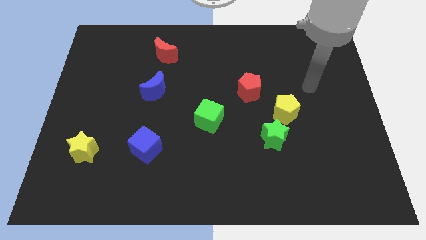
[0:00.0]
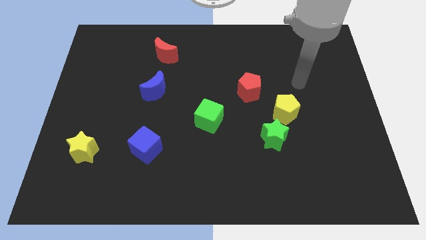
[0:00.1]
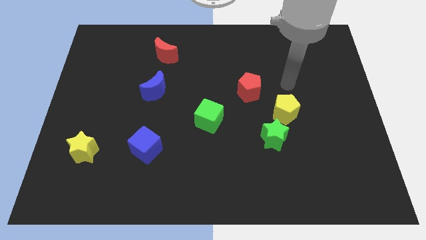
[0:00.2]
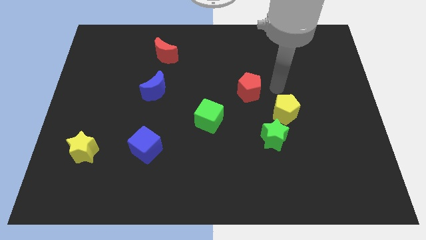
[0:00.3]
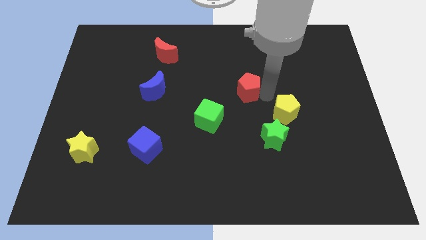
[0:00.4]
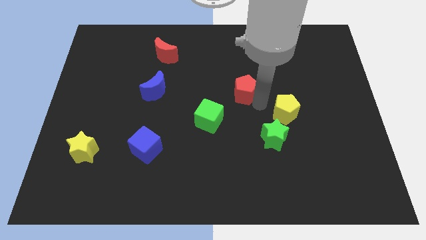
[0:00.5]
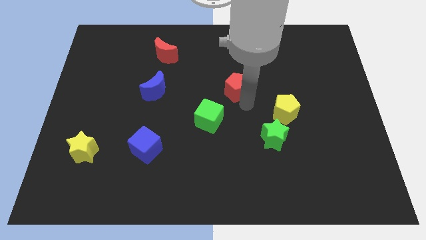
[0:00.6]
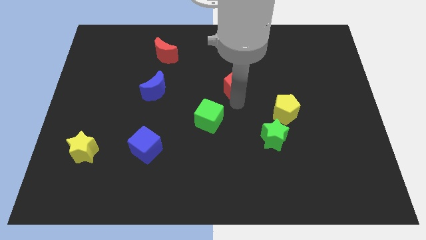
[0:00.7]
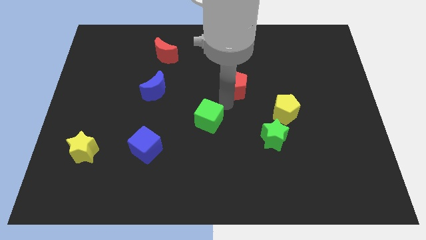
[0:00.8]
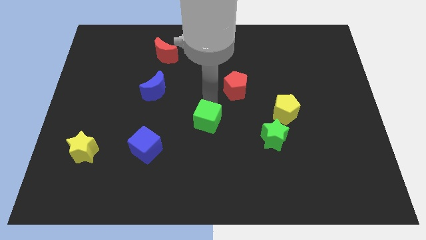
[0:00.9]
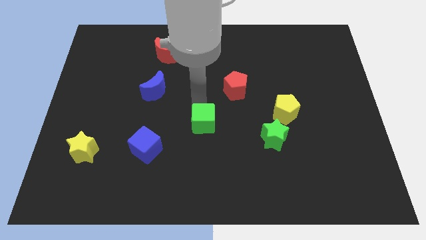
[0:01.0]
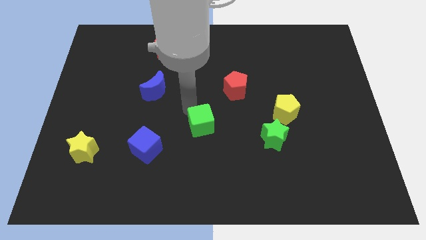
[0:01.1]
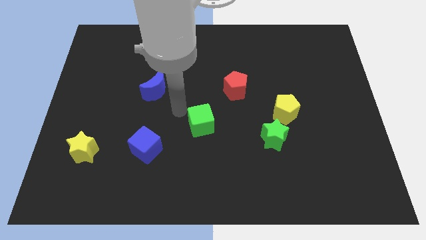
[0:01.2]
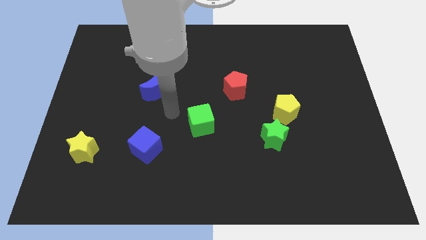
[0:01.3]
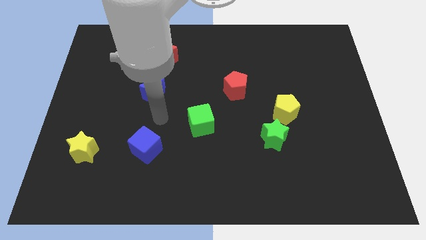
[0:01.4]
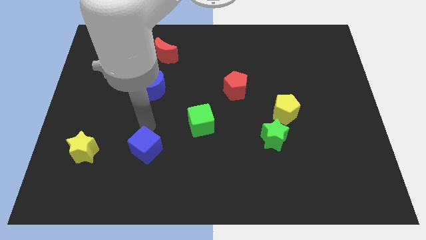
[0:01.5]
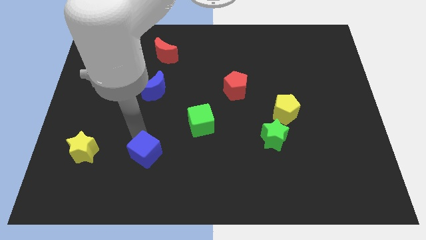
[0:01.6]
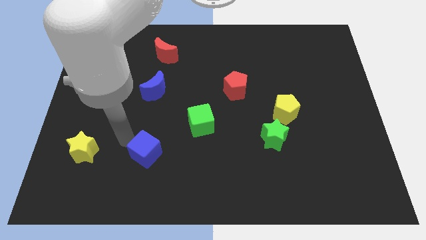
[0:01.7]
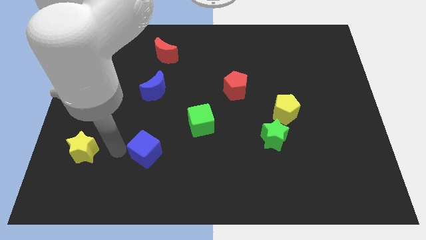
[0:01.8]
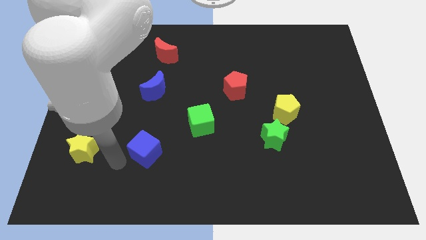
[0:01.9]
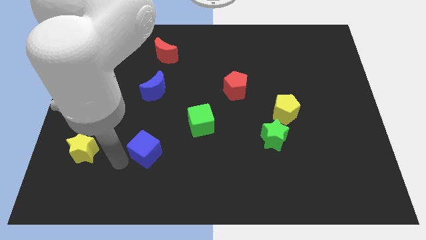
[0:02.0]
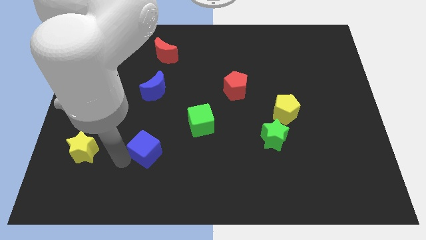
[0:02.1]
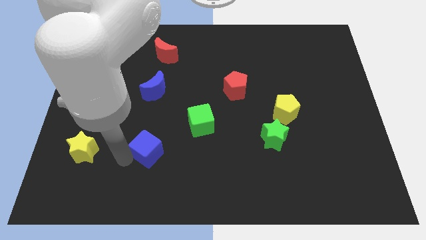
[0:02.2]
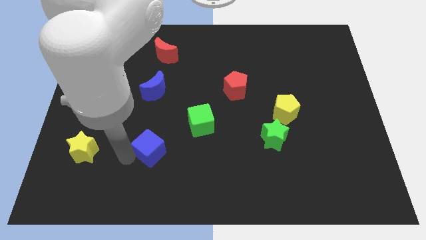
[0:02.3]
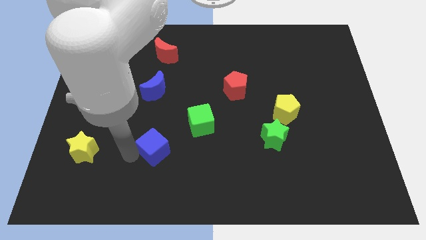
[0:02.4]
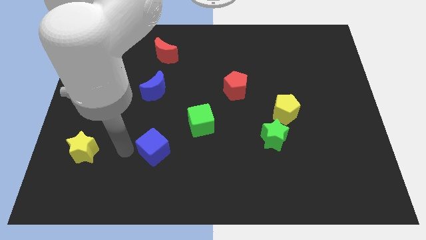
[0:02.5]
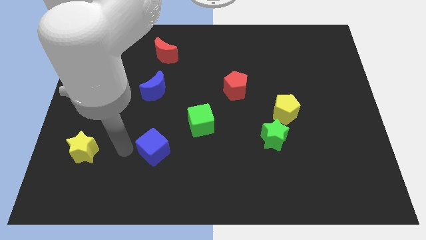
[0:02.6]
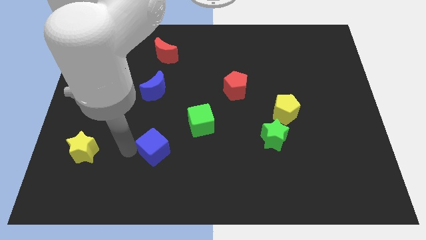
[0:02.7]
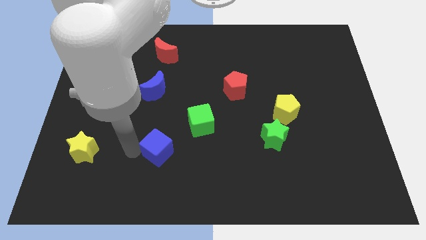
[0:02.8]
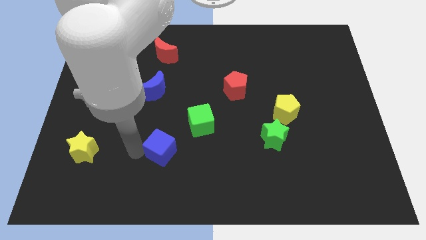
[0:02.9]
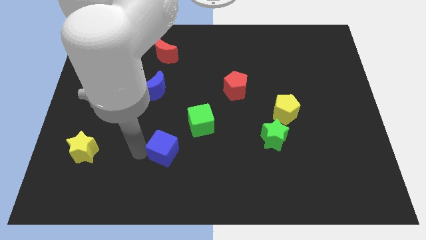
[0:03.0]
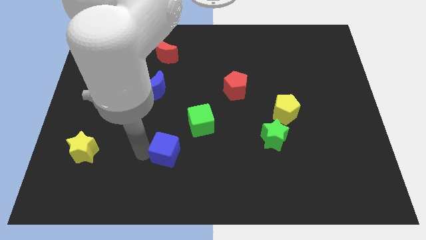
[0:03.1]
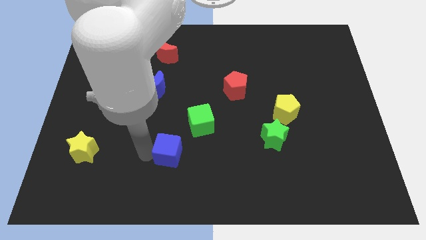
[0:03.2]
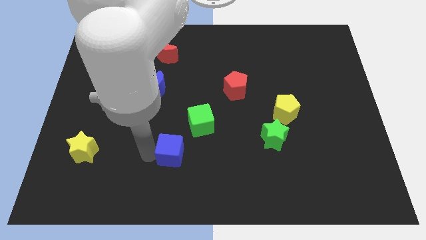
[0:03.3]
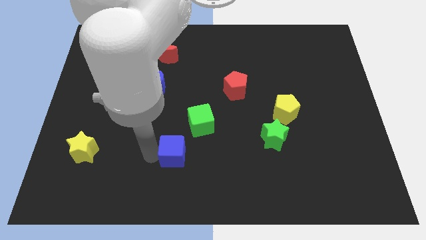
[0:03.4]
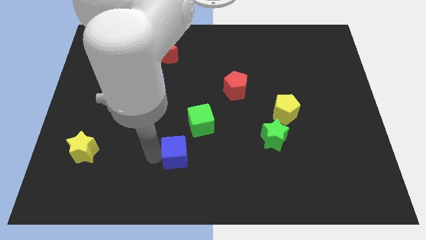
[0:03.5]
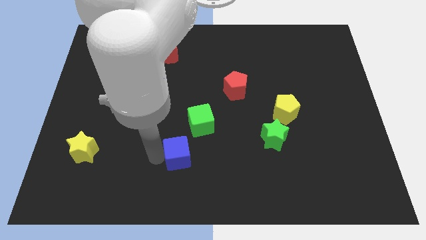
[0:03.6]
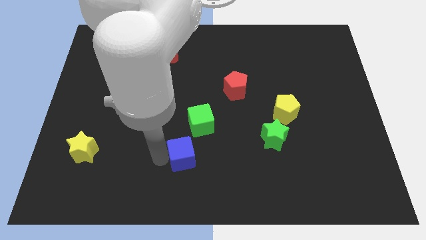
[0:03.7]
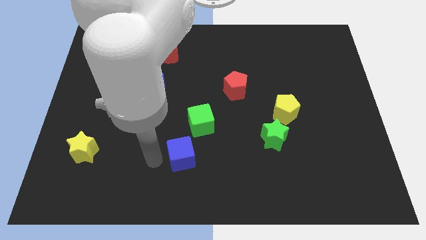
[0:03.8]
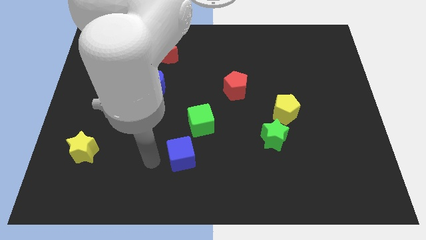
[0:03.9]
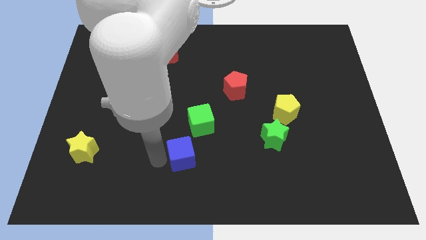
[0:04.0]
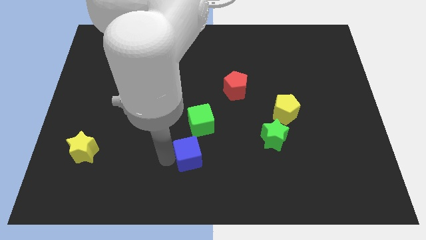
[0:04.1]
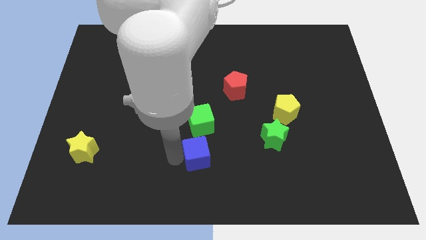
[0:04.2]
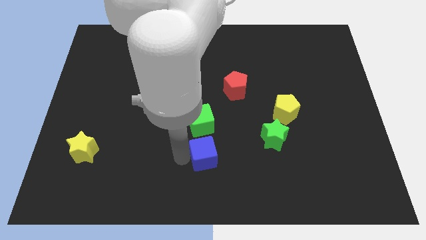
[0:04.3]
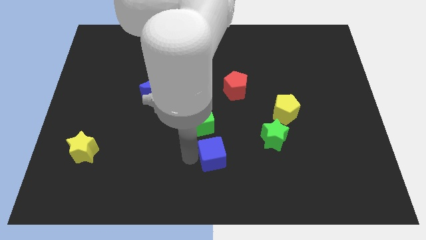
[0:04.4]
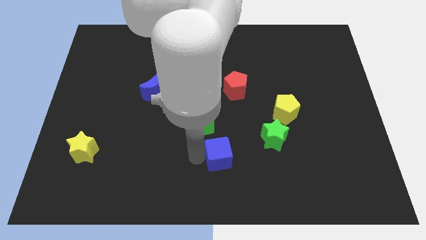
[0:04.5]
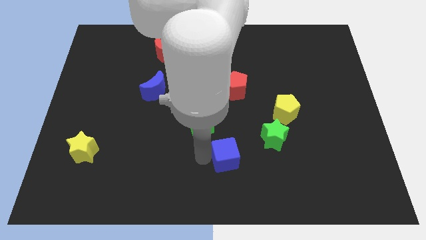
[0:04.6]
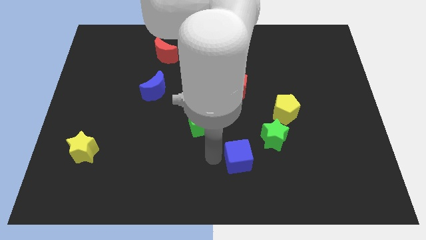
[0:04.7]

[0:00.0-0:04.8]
slide the blue cube to the right

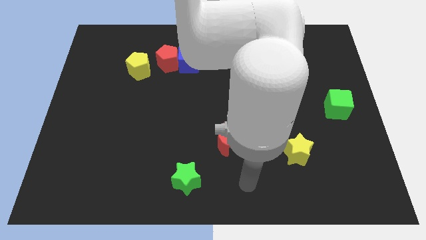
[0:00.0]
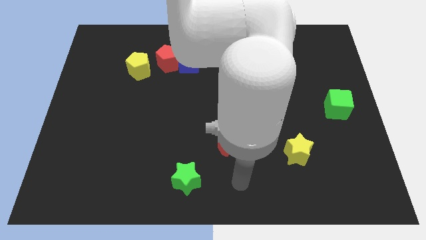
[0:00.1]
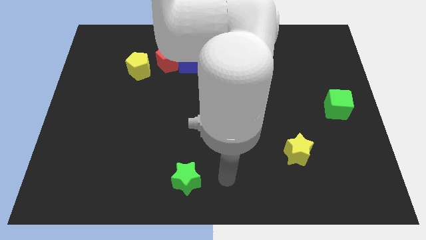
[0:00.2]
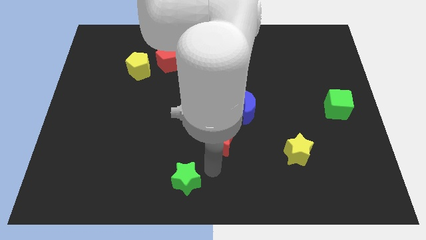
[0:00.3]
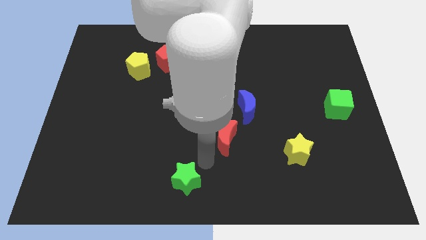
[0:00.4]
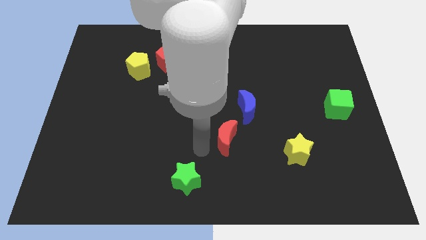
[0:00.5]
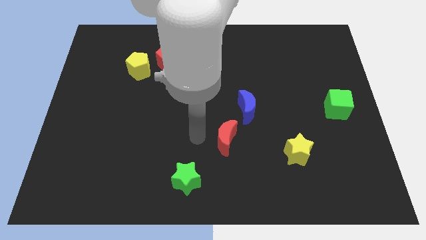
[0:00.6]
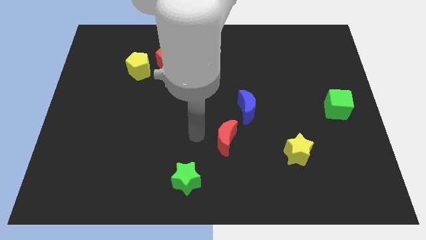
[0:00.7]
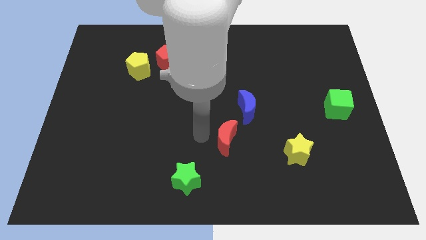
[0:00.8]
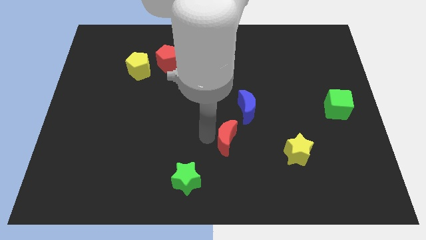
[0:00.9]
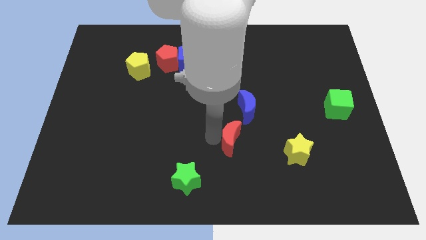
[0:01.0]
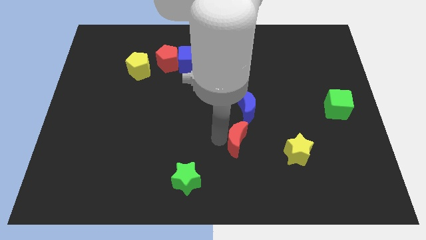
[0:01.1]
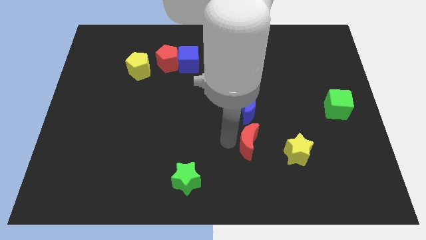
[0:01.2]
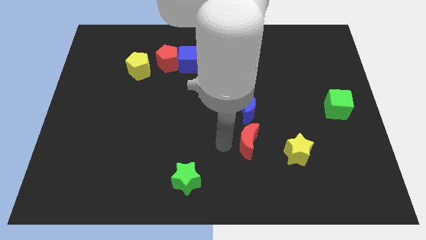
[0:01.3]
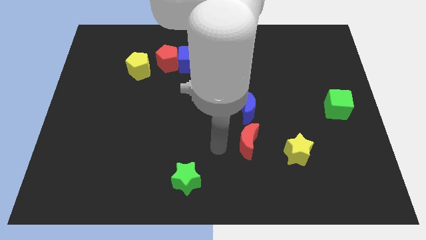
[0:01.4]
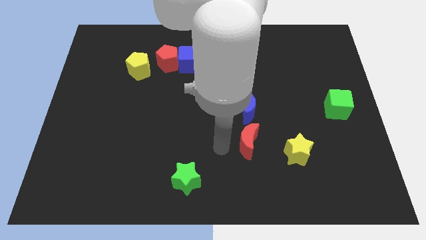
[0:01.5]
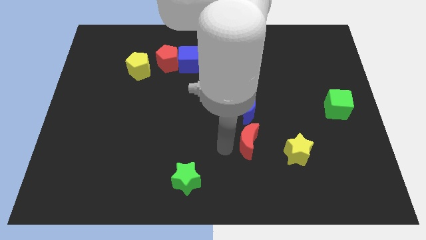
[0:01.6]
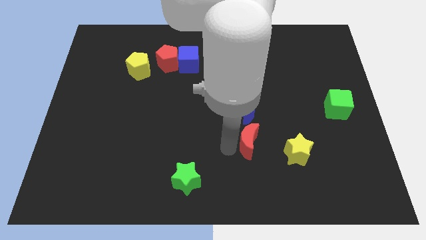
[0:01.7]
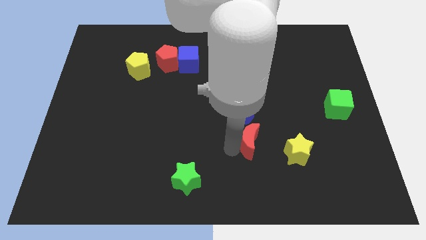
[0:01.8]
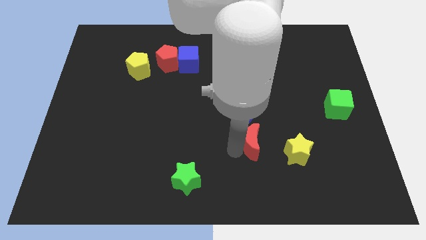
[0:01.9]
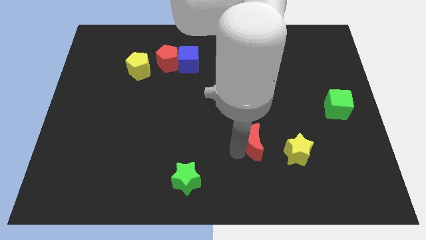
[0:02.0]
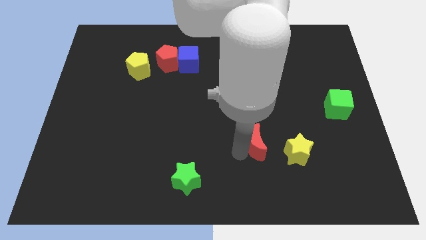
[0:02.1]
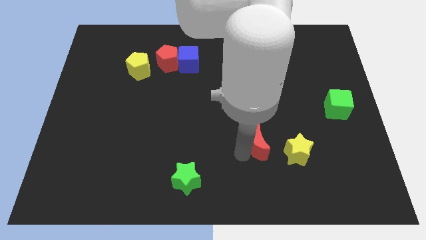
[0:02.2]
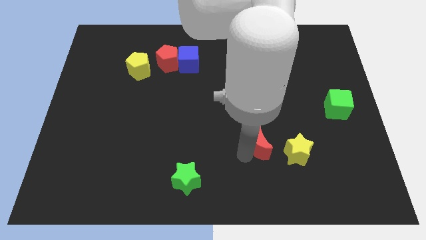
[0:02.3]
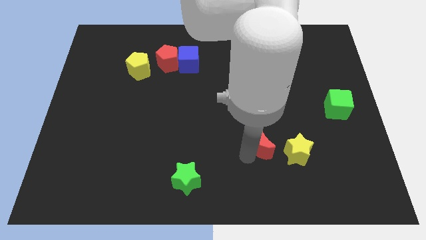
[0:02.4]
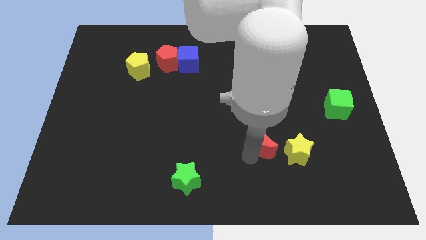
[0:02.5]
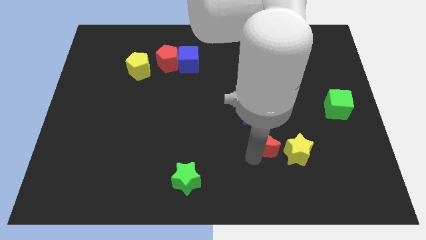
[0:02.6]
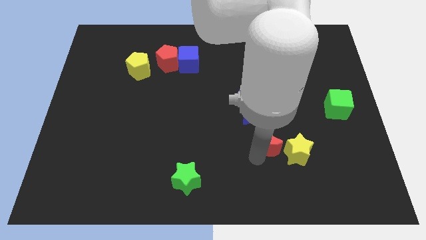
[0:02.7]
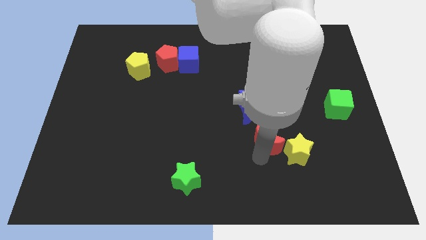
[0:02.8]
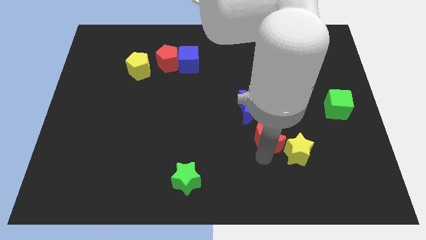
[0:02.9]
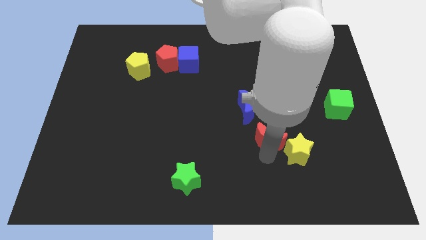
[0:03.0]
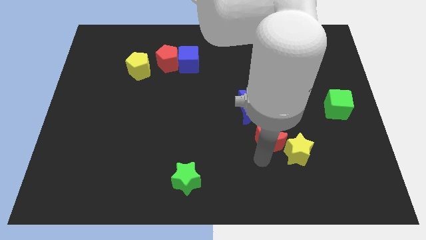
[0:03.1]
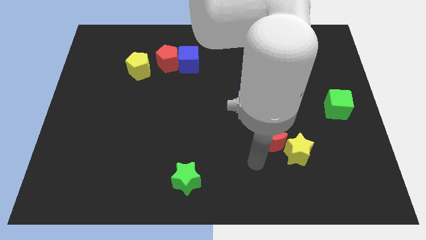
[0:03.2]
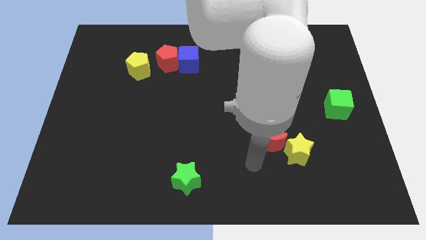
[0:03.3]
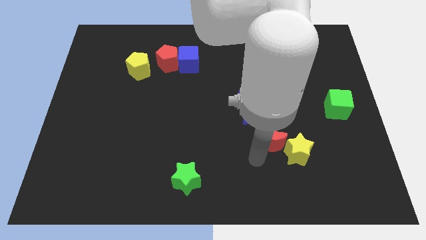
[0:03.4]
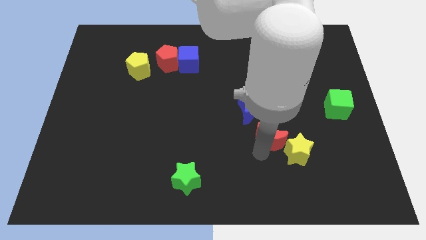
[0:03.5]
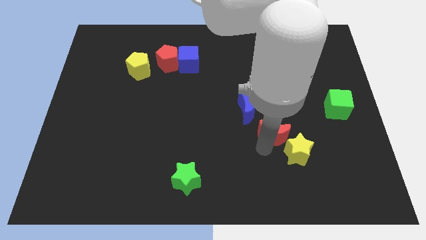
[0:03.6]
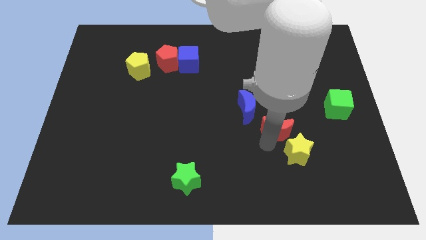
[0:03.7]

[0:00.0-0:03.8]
slightly push the red moon upwards and to the right
